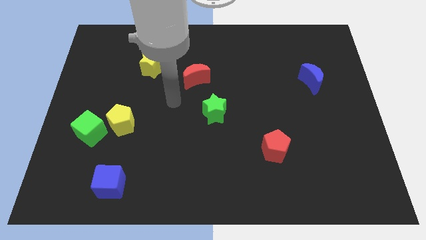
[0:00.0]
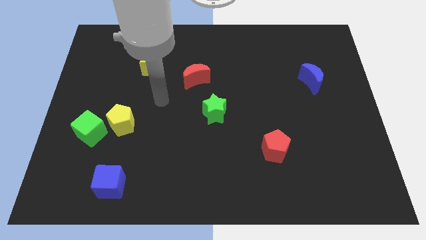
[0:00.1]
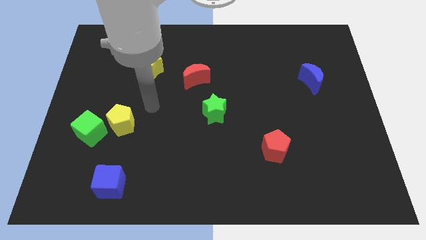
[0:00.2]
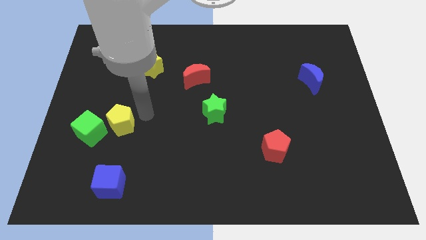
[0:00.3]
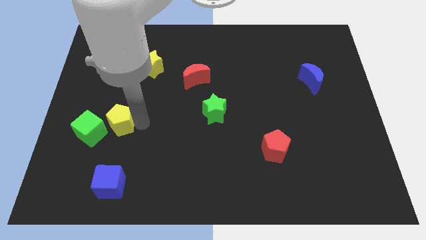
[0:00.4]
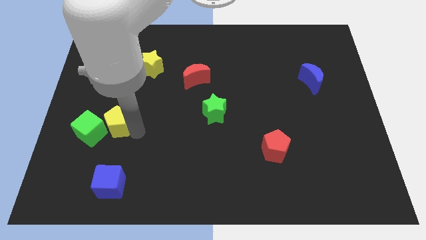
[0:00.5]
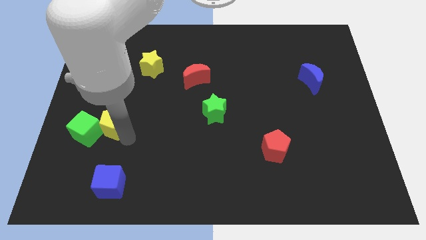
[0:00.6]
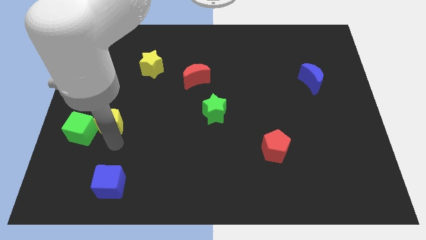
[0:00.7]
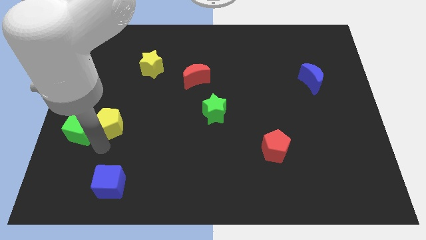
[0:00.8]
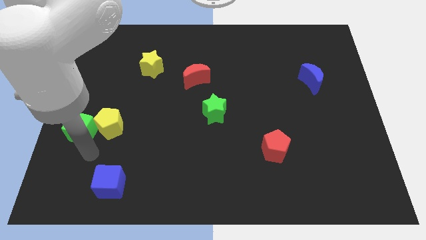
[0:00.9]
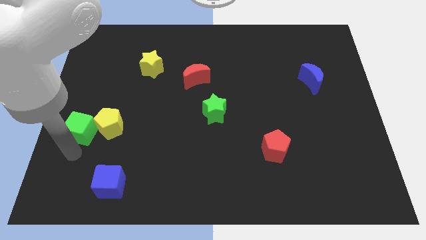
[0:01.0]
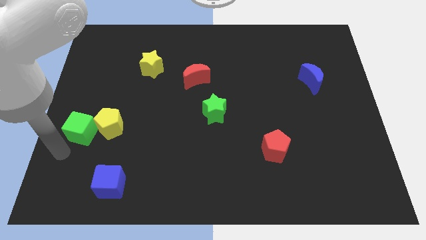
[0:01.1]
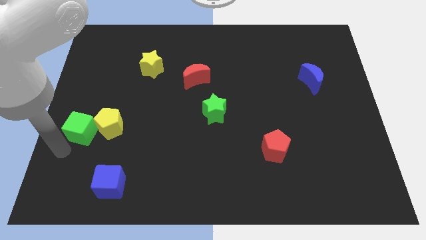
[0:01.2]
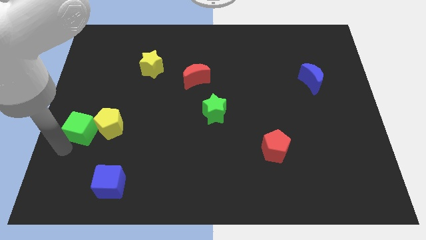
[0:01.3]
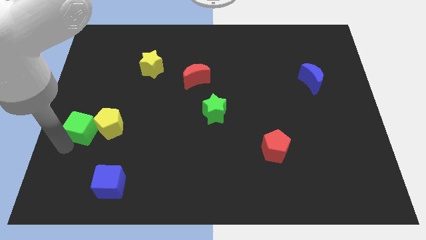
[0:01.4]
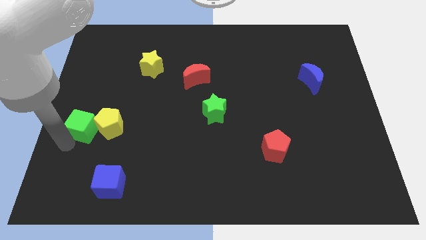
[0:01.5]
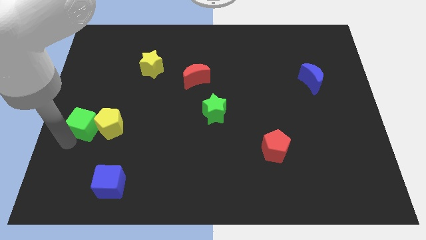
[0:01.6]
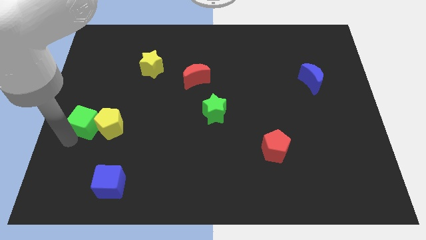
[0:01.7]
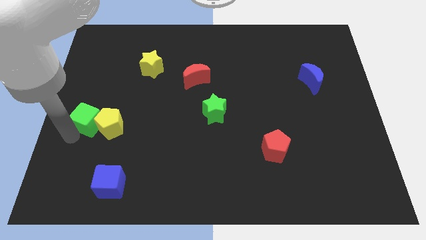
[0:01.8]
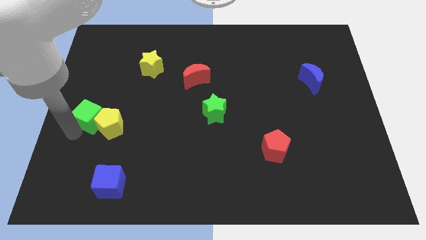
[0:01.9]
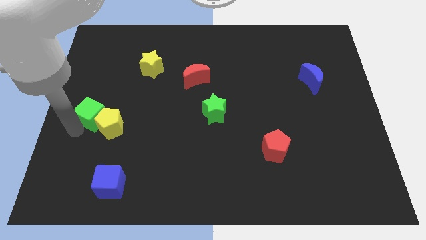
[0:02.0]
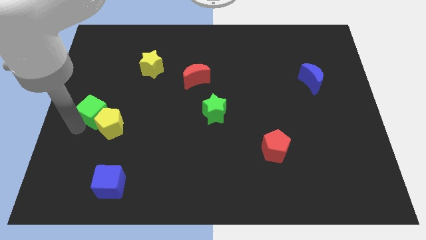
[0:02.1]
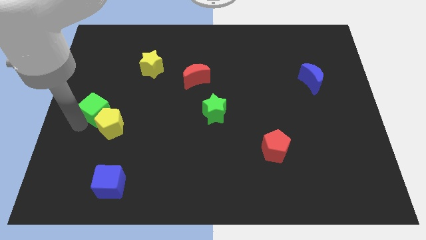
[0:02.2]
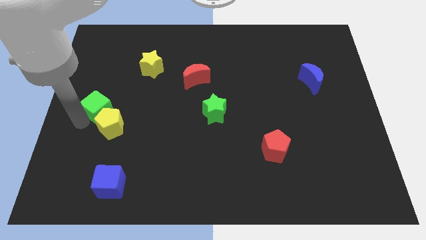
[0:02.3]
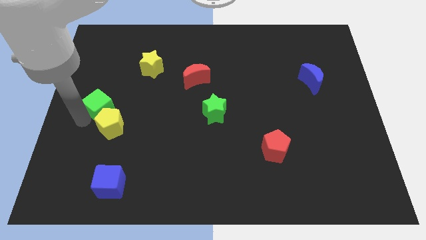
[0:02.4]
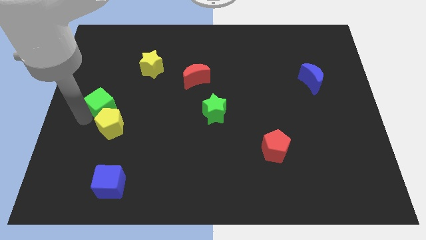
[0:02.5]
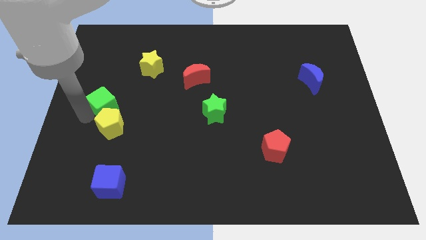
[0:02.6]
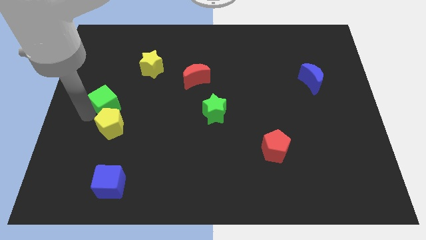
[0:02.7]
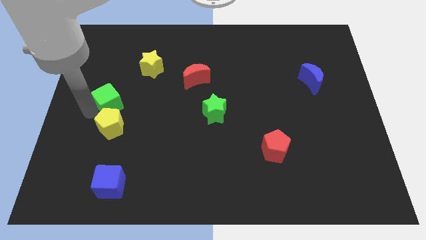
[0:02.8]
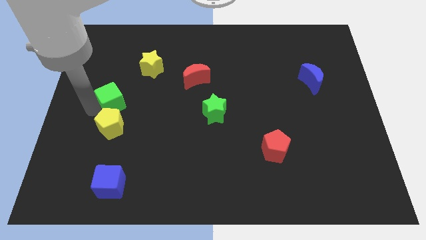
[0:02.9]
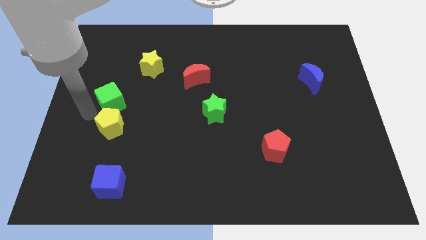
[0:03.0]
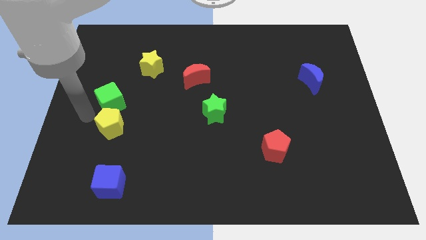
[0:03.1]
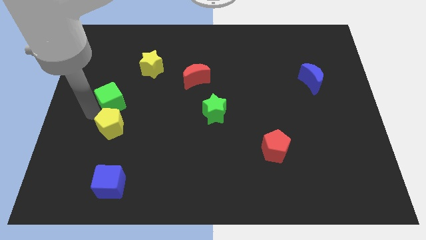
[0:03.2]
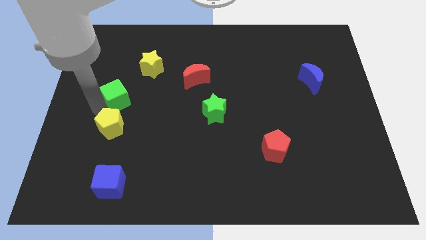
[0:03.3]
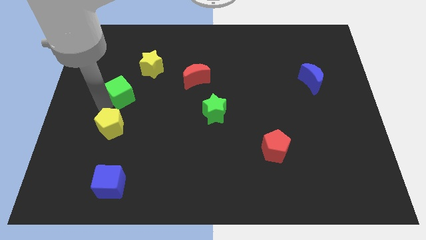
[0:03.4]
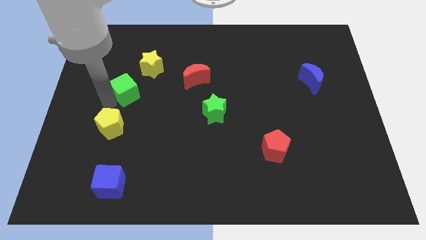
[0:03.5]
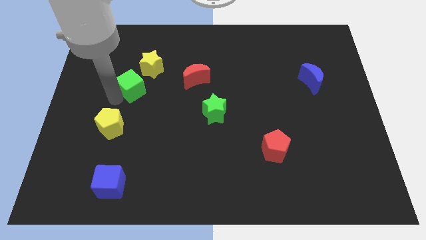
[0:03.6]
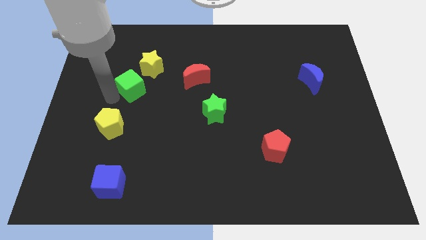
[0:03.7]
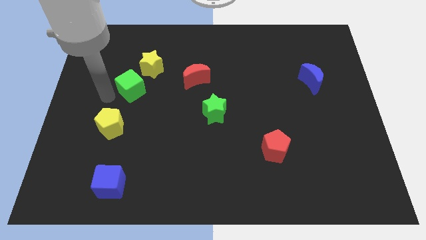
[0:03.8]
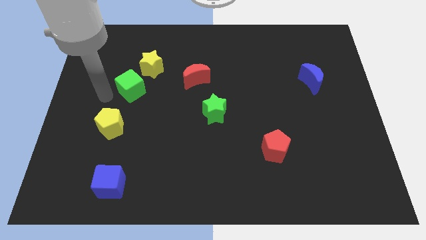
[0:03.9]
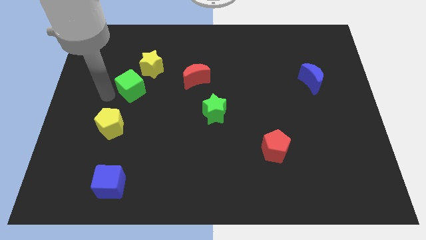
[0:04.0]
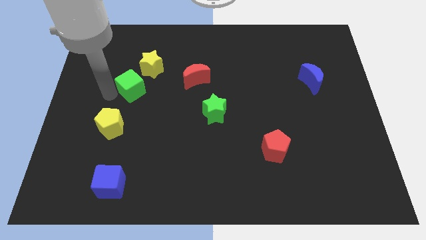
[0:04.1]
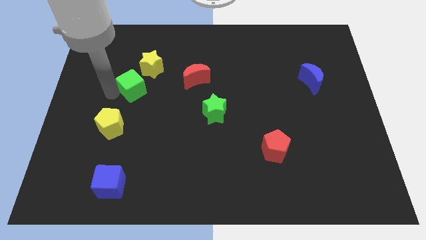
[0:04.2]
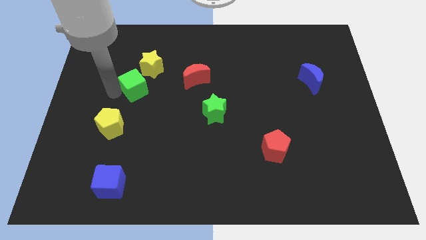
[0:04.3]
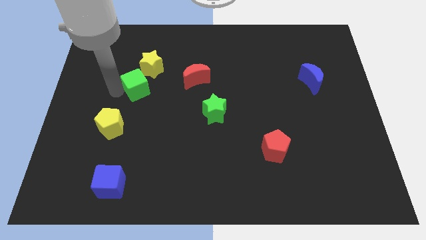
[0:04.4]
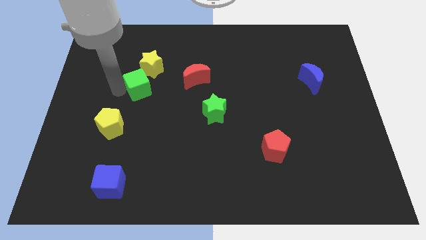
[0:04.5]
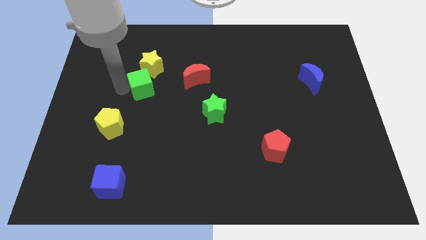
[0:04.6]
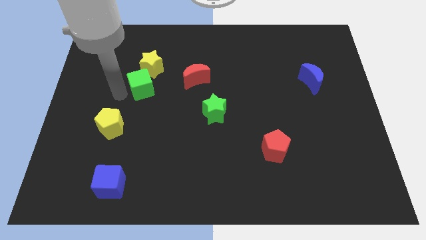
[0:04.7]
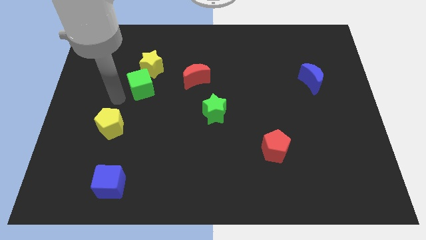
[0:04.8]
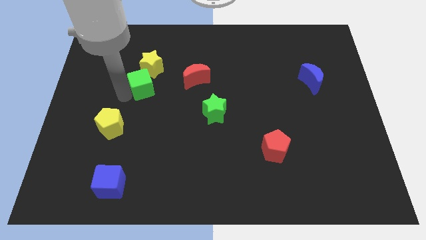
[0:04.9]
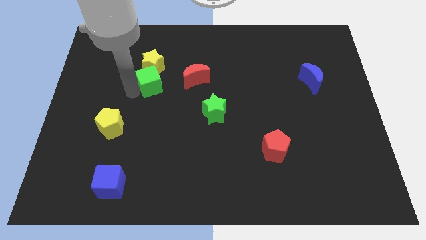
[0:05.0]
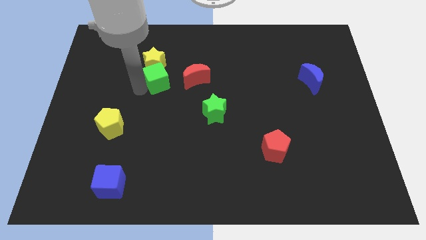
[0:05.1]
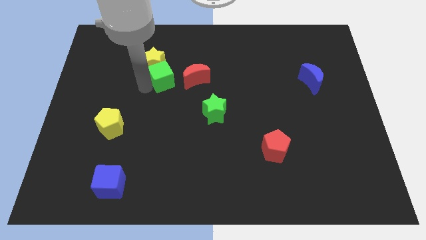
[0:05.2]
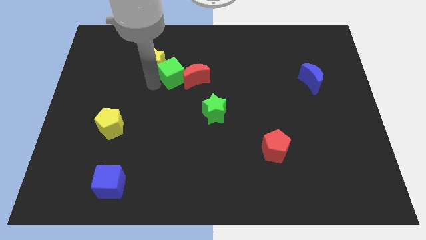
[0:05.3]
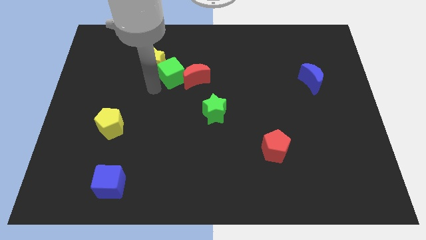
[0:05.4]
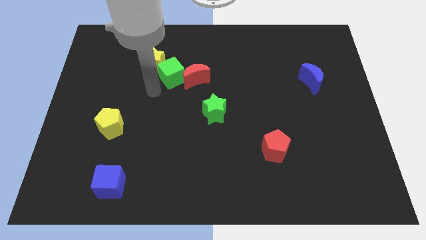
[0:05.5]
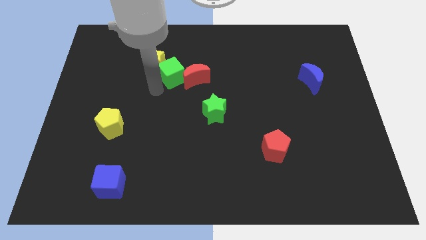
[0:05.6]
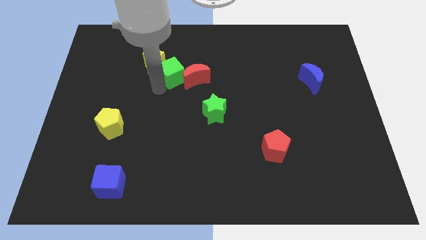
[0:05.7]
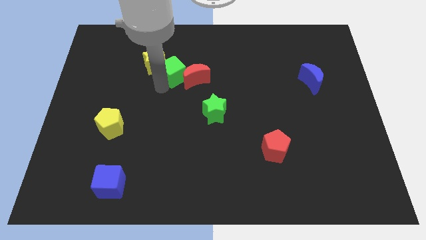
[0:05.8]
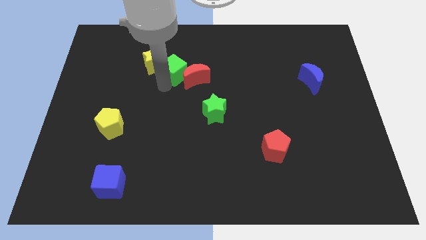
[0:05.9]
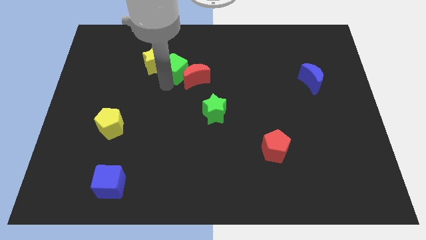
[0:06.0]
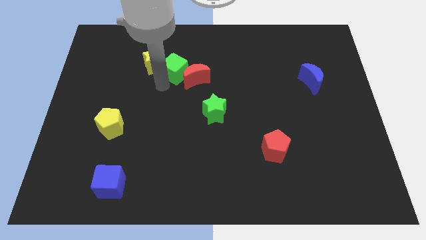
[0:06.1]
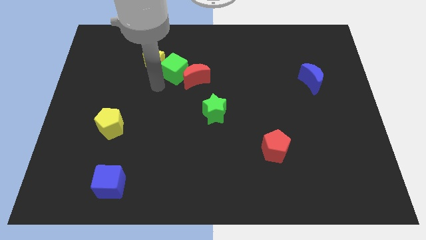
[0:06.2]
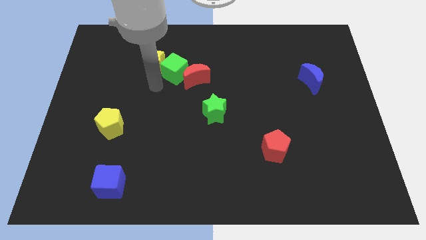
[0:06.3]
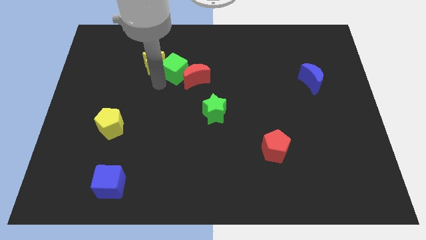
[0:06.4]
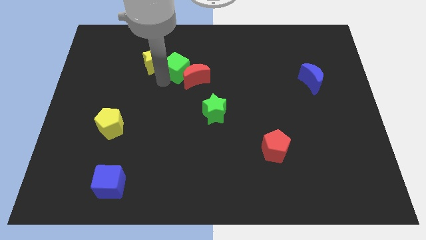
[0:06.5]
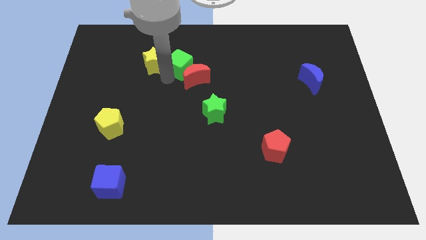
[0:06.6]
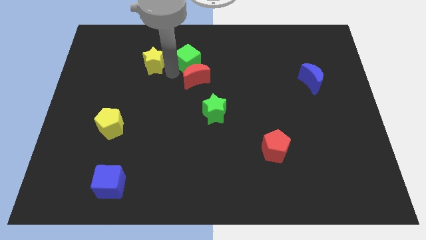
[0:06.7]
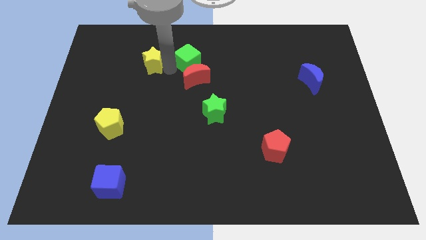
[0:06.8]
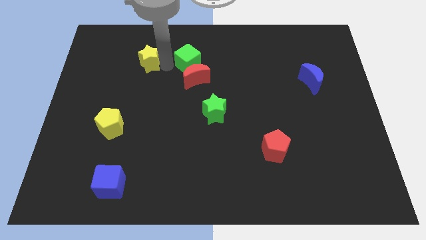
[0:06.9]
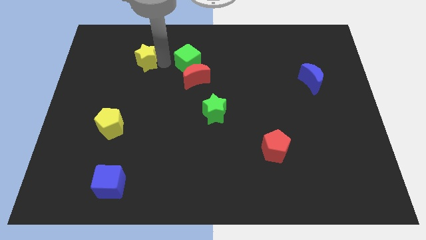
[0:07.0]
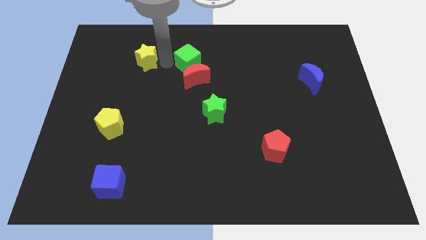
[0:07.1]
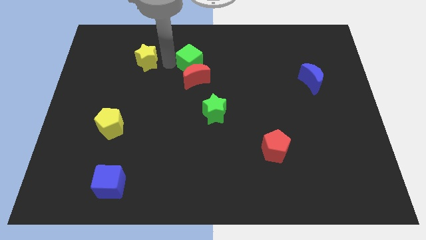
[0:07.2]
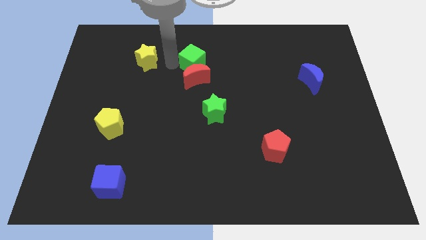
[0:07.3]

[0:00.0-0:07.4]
put the green cube to the top right side of the red moon

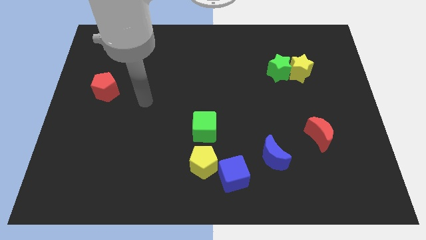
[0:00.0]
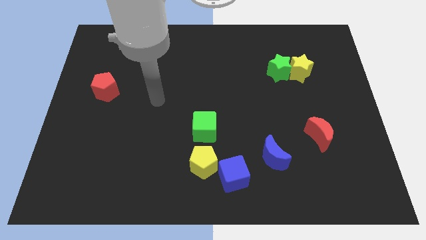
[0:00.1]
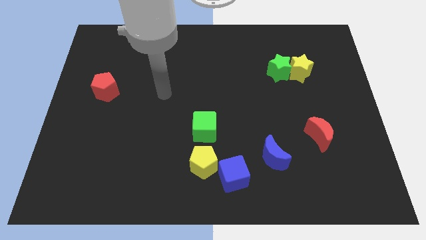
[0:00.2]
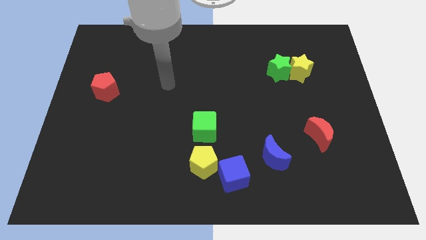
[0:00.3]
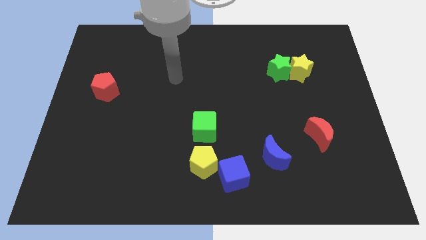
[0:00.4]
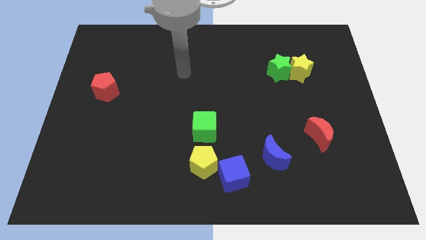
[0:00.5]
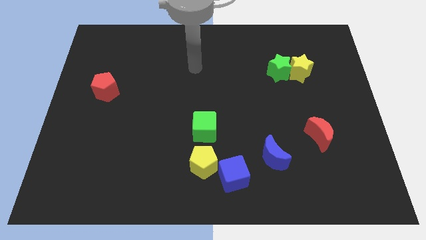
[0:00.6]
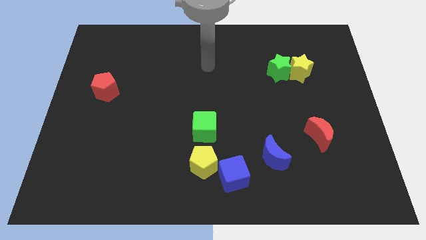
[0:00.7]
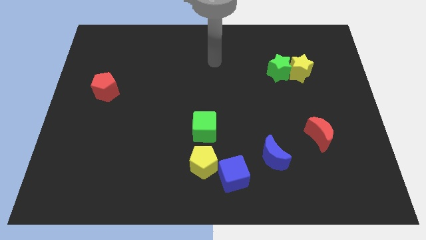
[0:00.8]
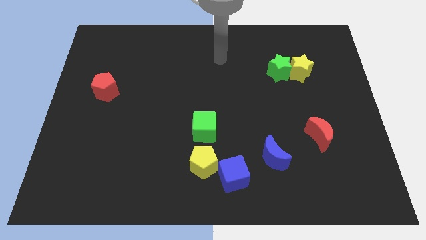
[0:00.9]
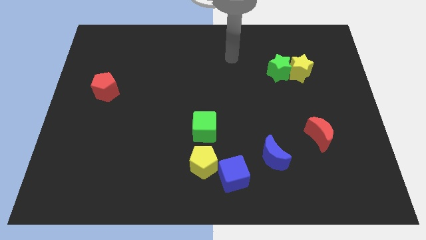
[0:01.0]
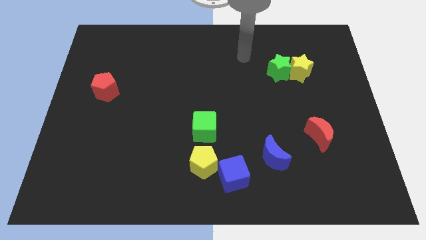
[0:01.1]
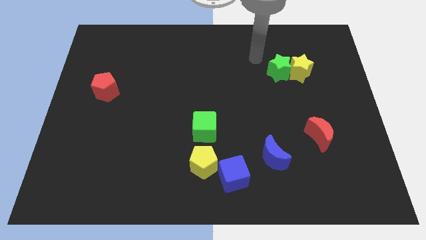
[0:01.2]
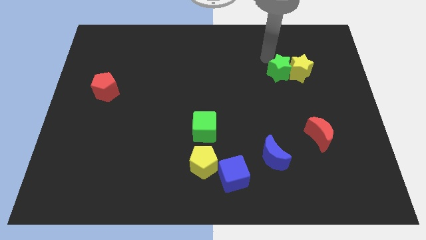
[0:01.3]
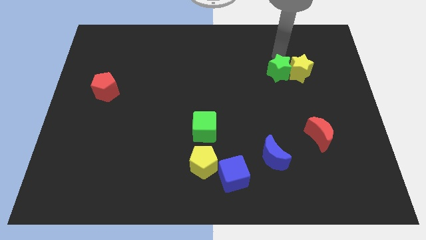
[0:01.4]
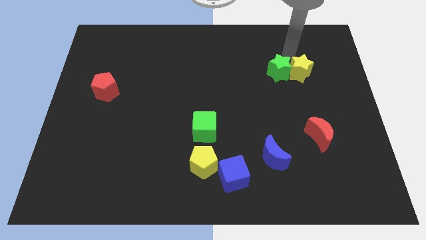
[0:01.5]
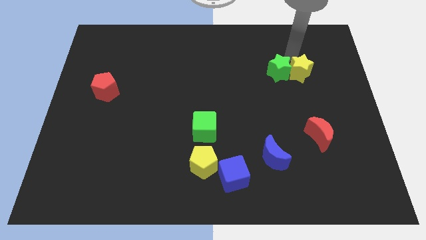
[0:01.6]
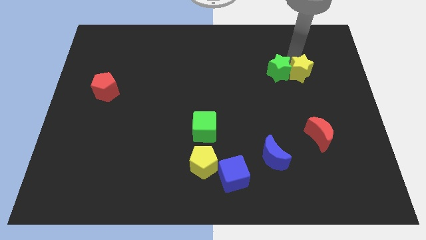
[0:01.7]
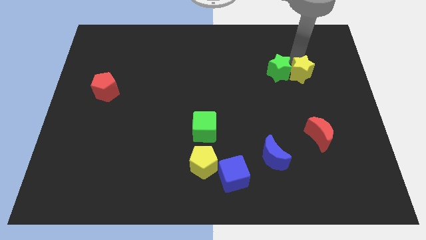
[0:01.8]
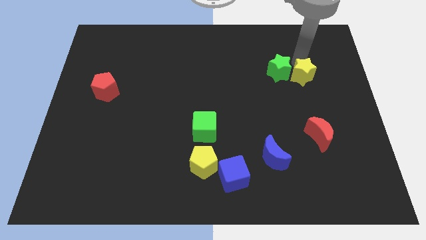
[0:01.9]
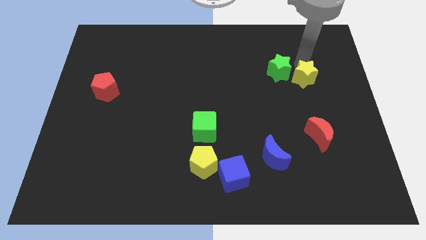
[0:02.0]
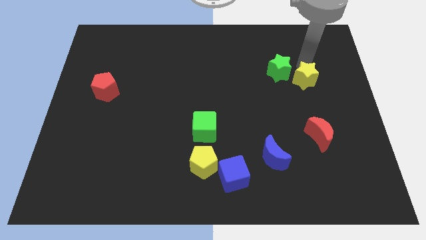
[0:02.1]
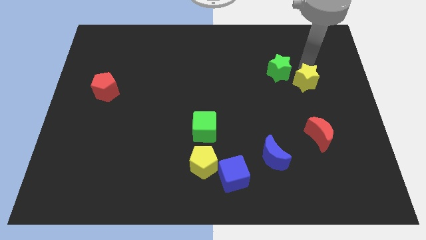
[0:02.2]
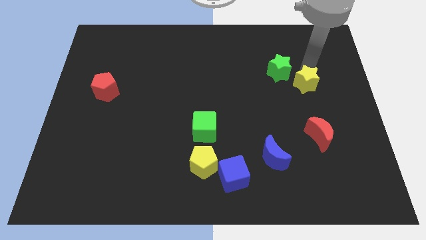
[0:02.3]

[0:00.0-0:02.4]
put the yellow star to the top side of the red moon
